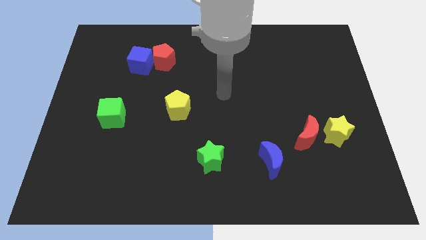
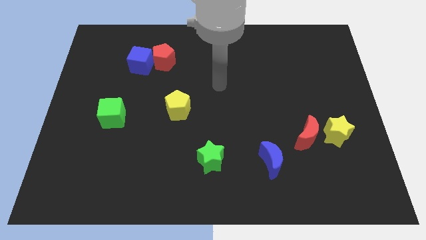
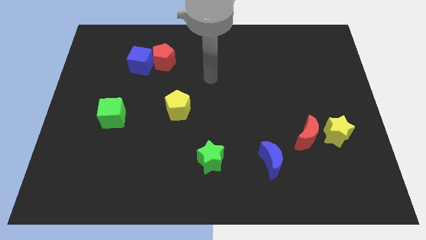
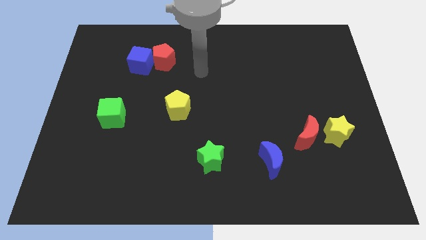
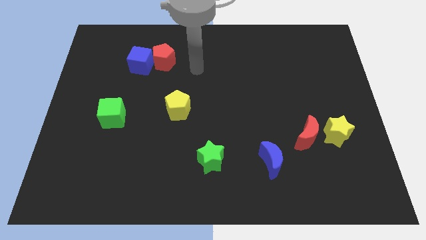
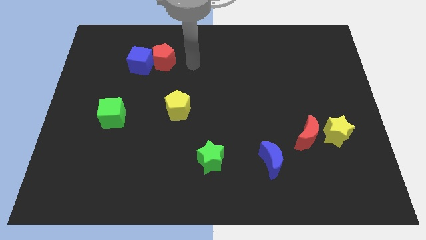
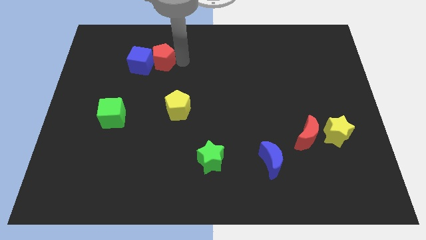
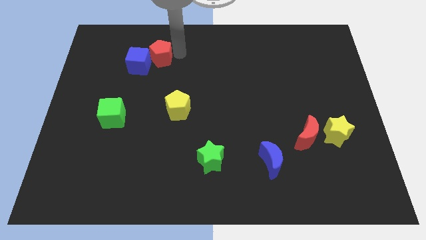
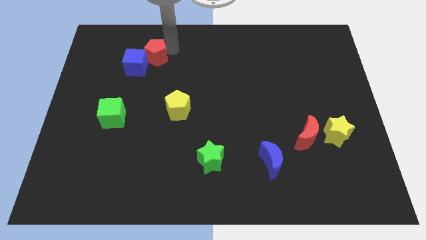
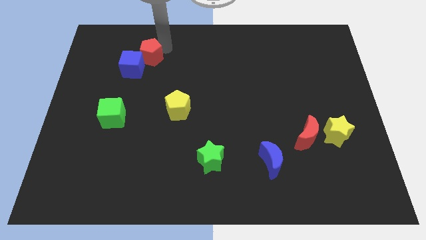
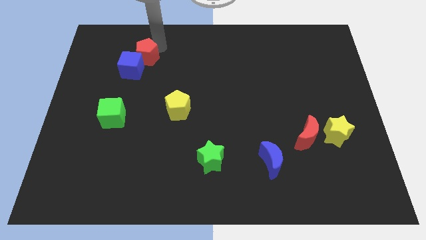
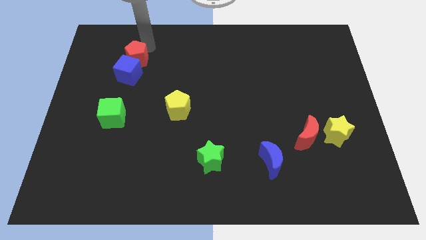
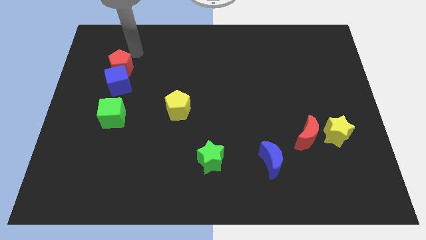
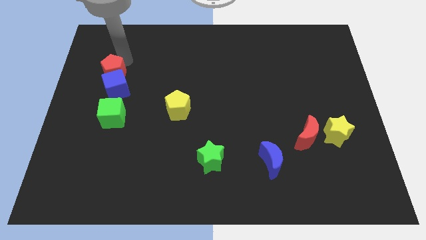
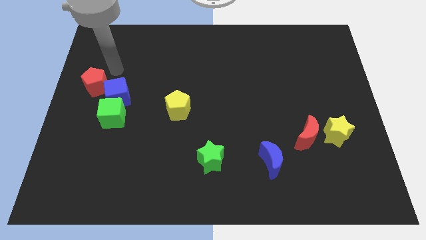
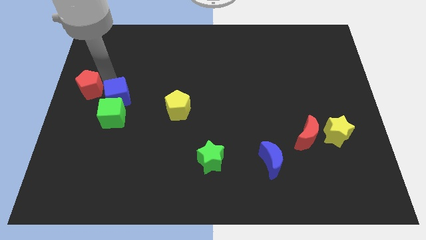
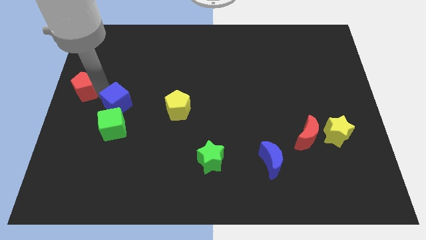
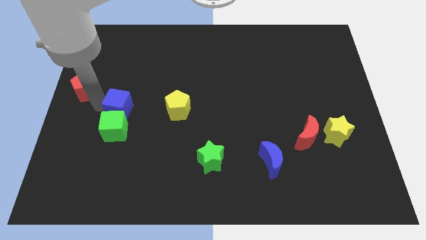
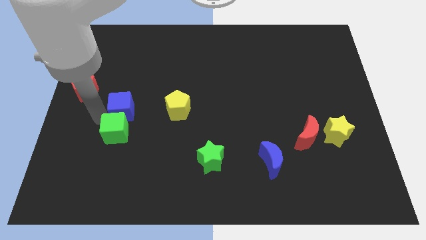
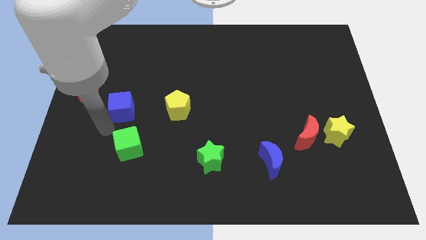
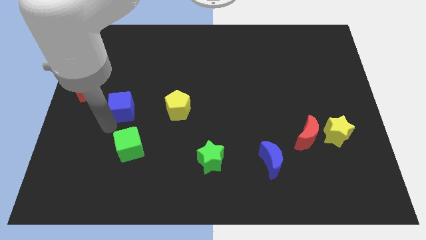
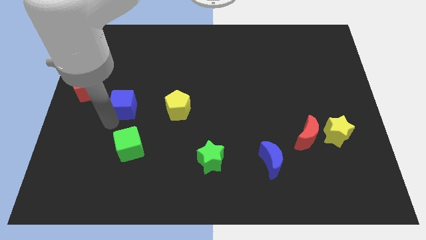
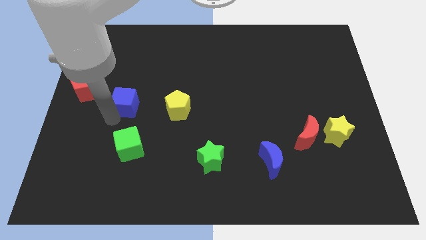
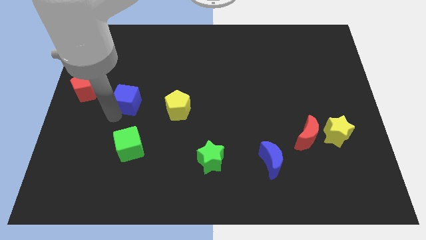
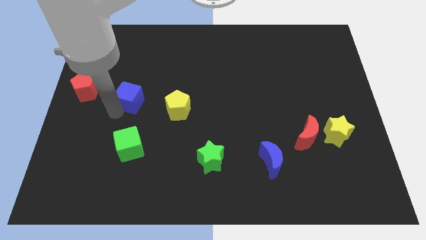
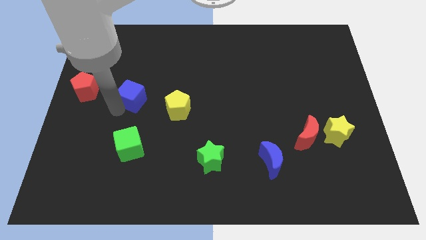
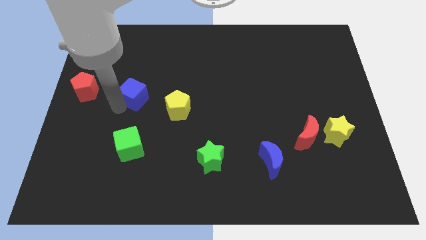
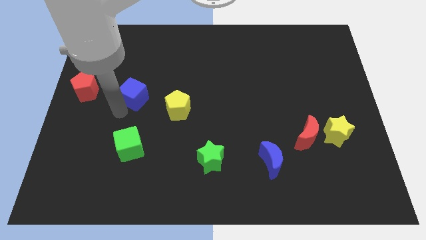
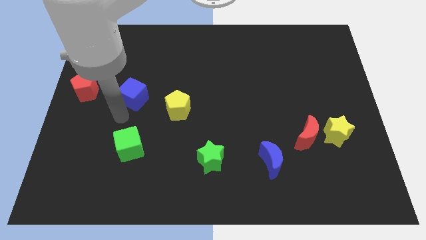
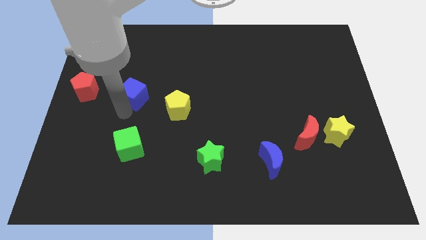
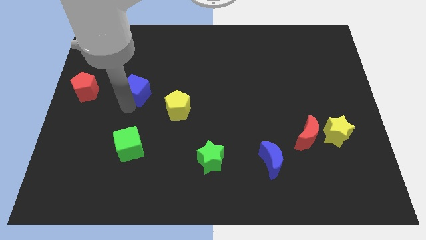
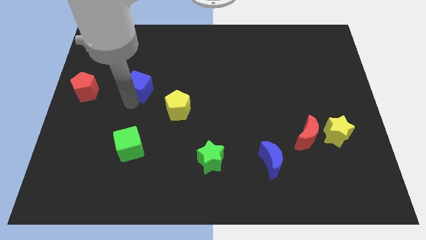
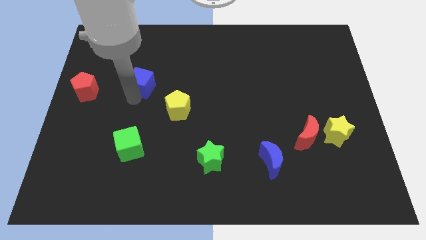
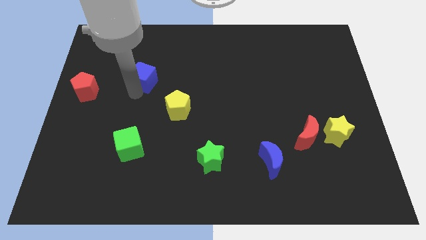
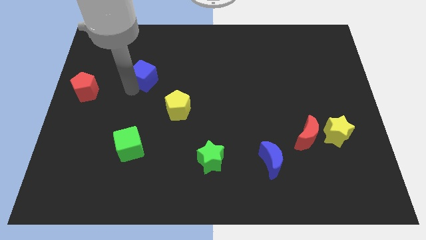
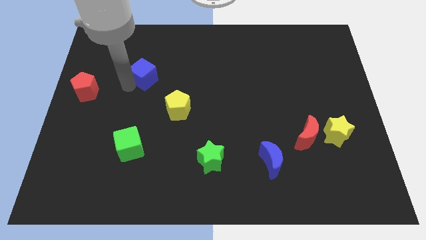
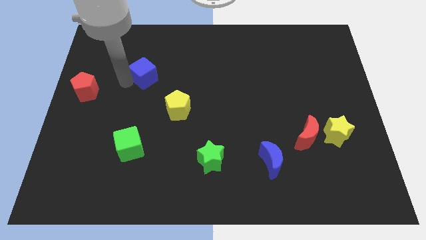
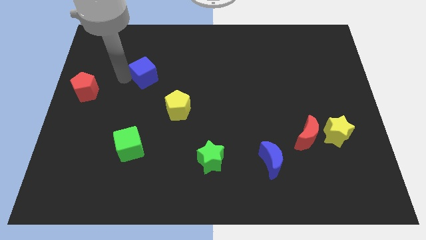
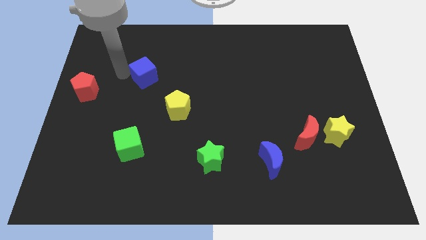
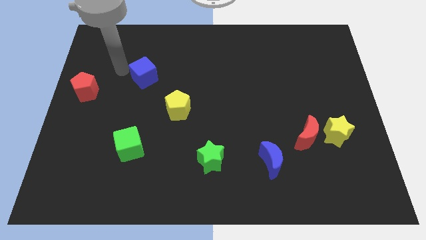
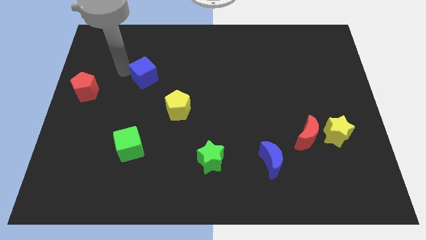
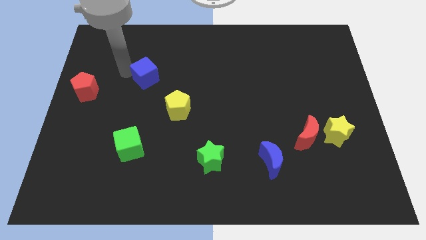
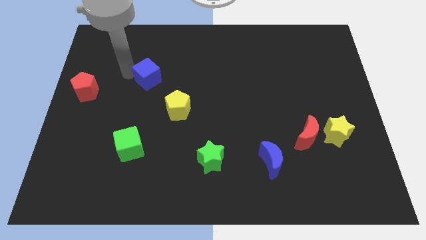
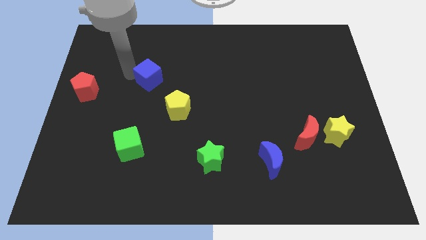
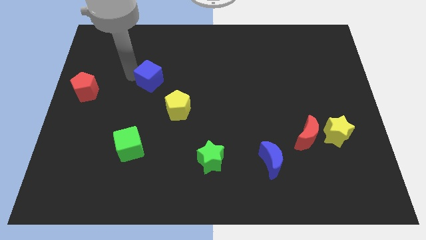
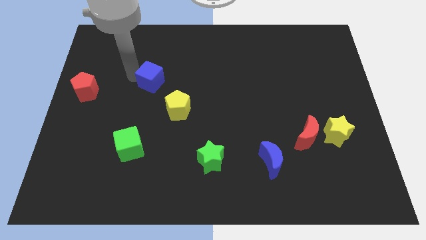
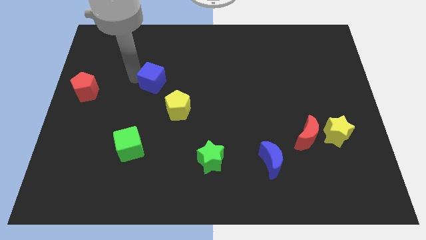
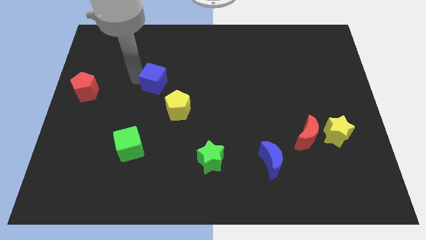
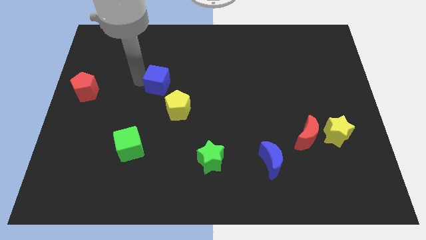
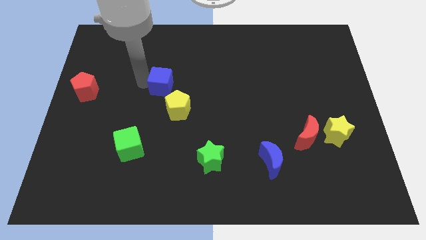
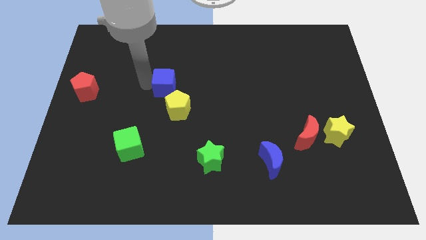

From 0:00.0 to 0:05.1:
move the blue cube to the middle

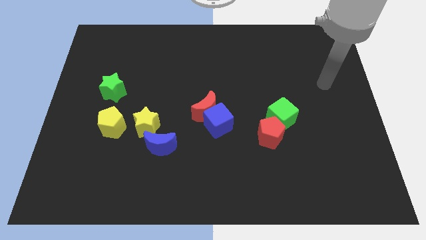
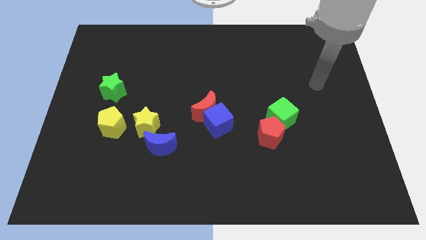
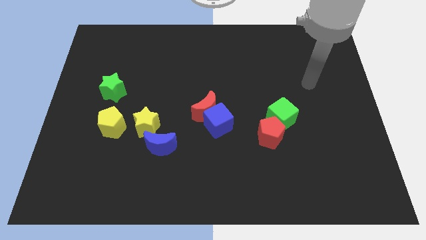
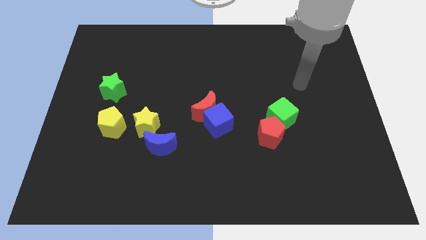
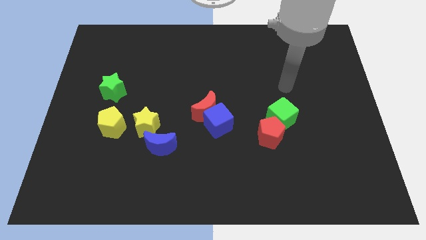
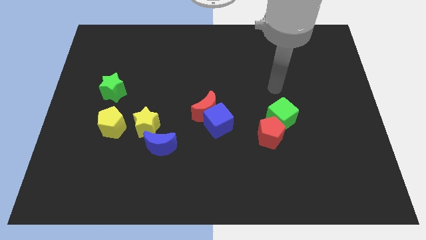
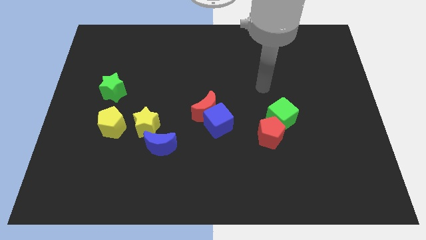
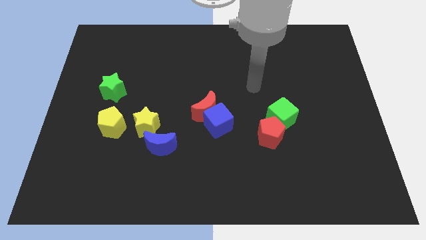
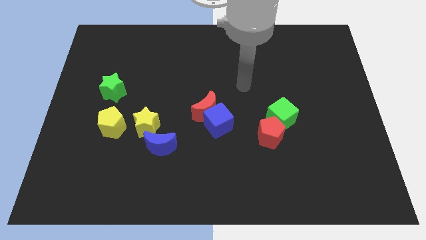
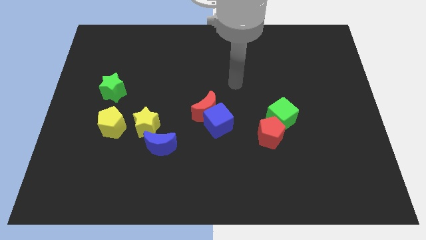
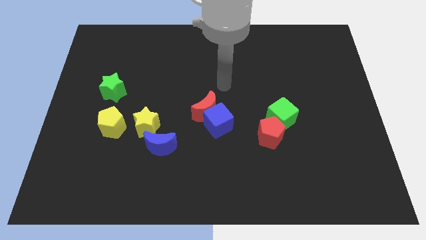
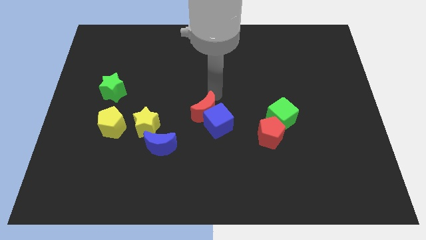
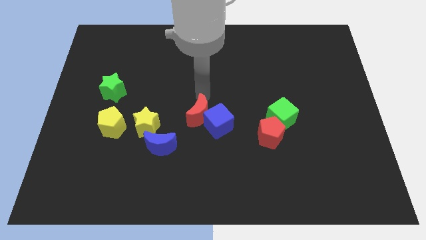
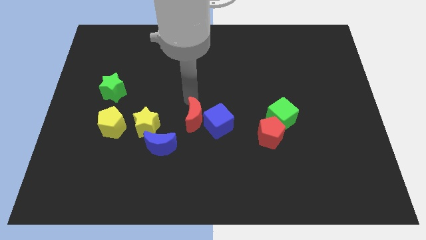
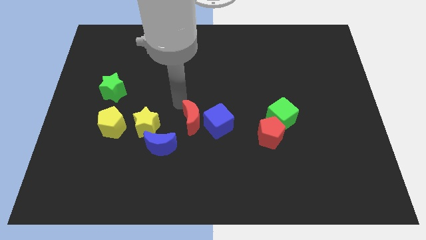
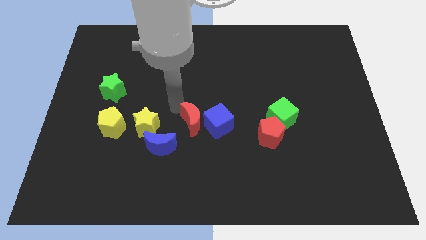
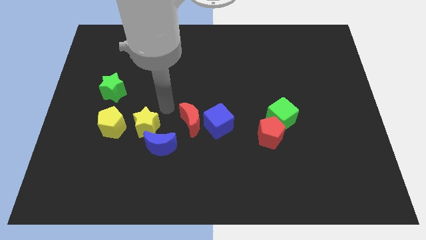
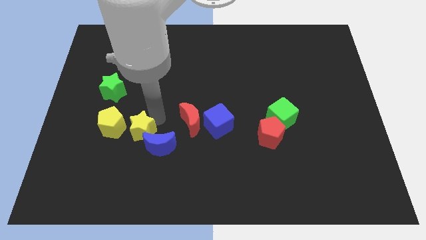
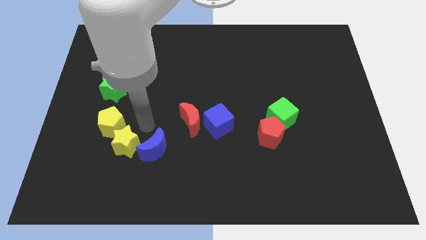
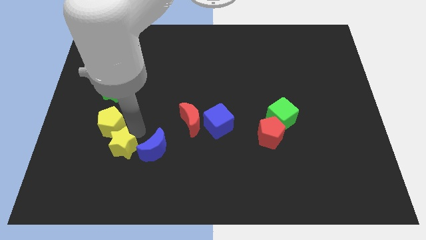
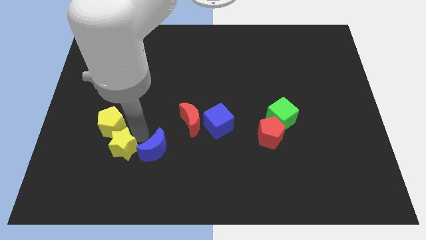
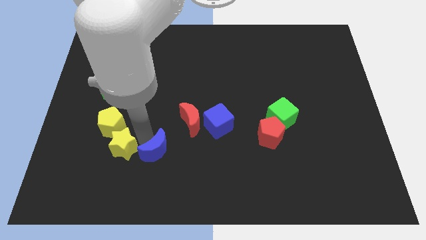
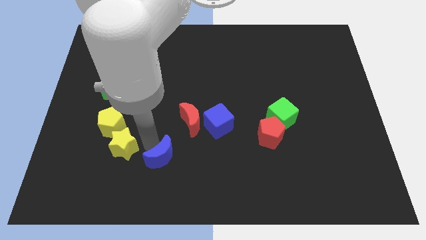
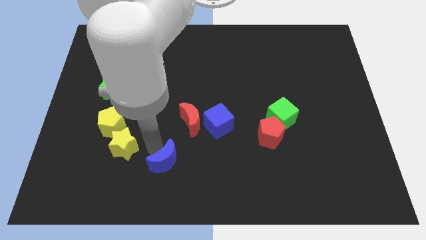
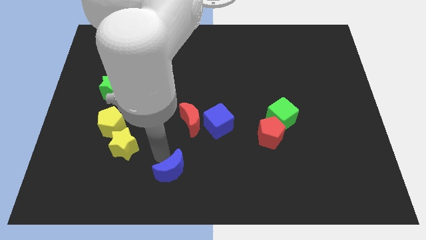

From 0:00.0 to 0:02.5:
put the blue moon to the bottom side
